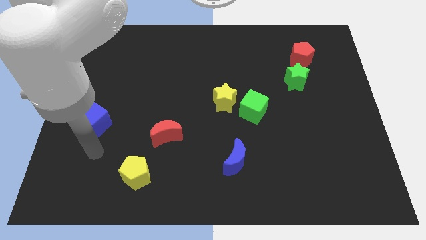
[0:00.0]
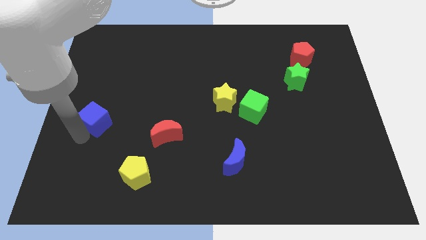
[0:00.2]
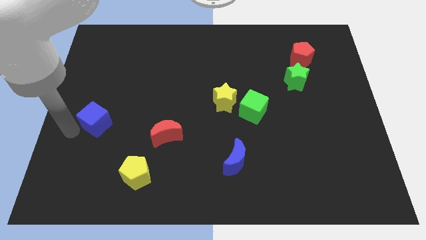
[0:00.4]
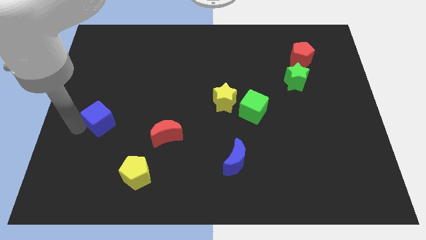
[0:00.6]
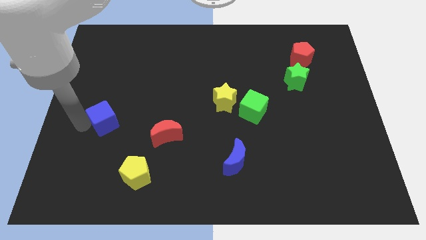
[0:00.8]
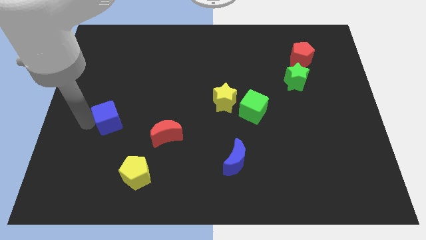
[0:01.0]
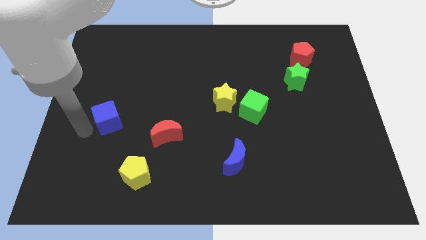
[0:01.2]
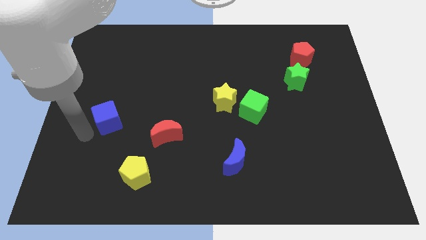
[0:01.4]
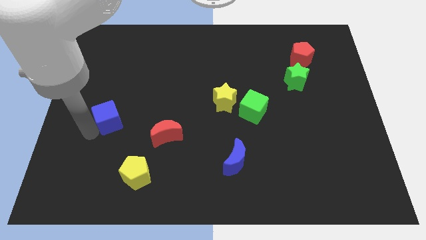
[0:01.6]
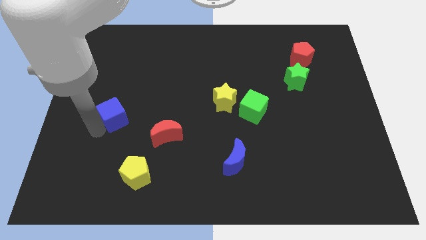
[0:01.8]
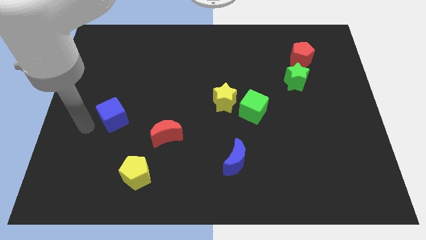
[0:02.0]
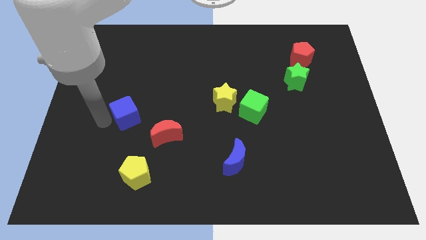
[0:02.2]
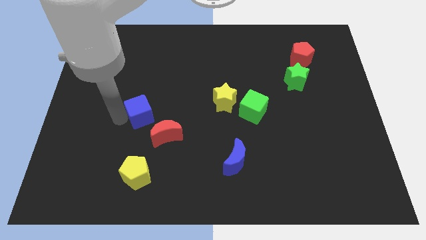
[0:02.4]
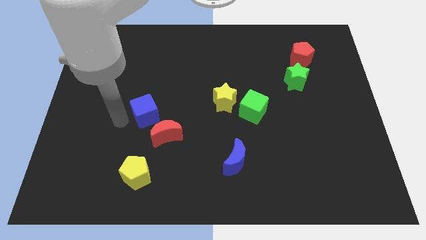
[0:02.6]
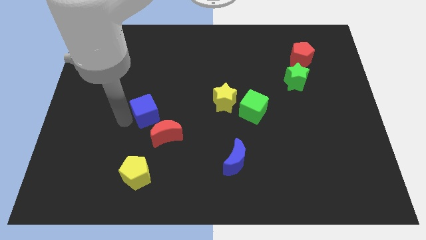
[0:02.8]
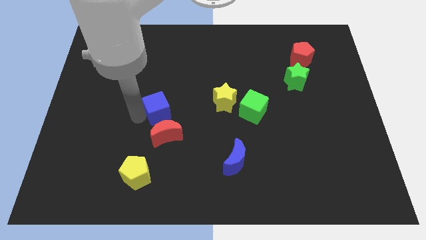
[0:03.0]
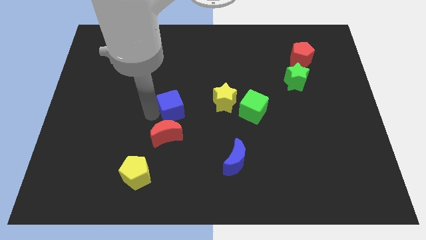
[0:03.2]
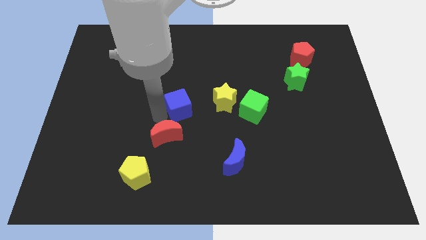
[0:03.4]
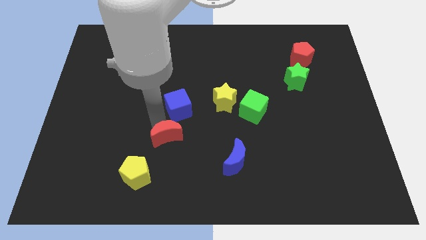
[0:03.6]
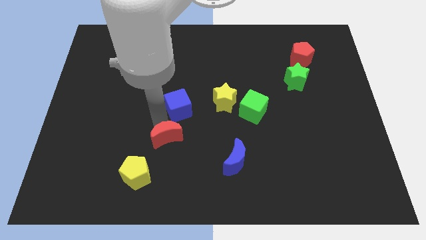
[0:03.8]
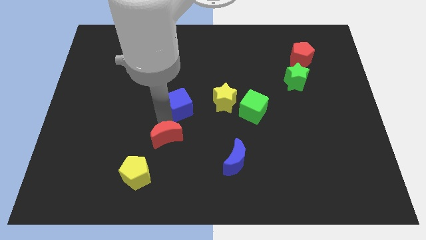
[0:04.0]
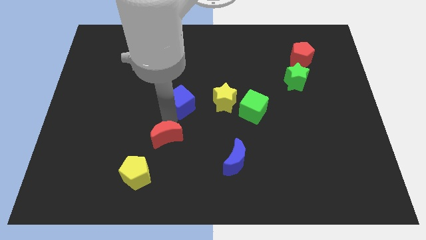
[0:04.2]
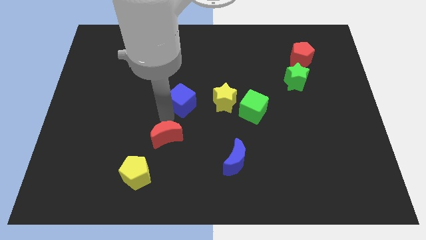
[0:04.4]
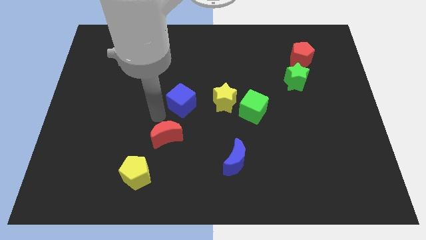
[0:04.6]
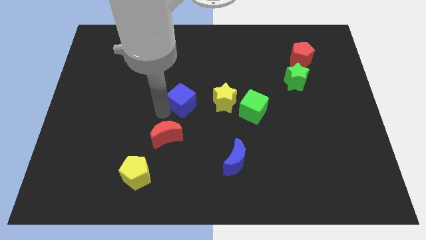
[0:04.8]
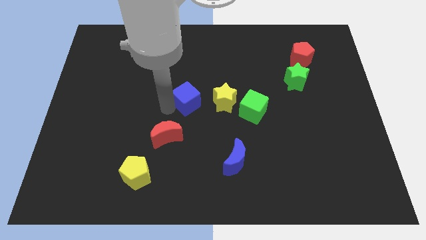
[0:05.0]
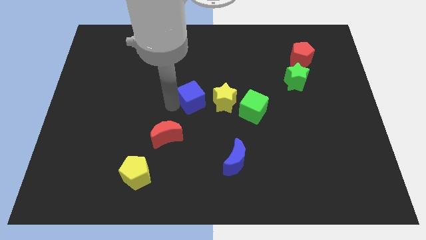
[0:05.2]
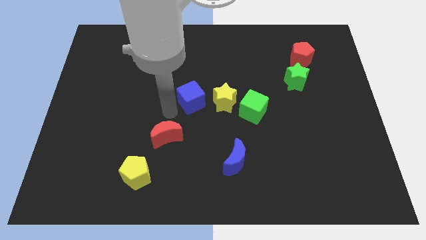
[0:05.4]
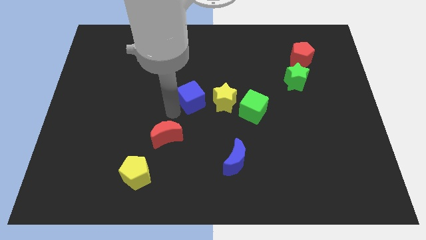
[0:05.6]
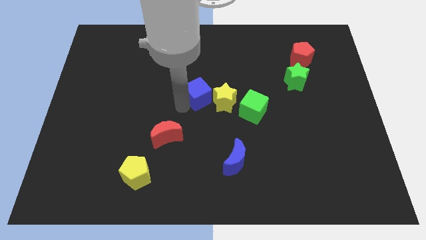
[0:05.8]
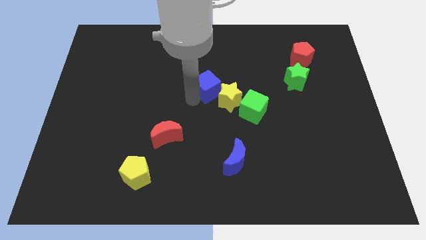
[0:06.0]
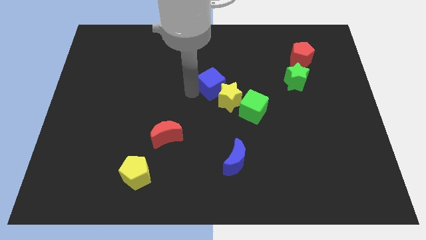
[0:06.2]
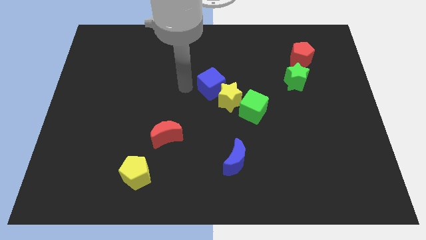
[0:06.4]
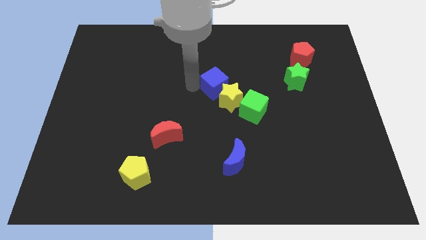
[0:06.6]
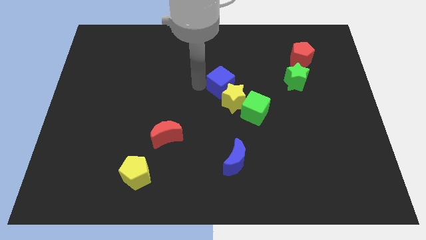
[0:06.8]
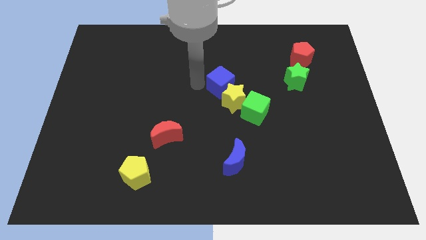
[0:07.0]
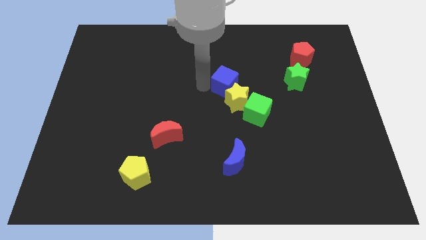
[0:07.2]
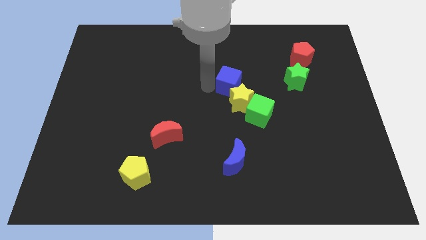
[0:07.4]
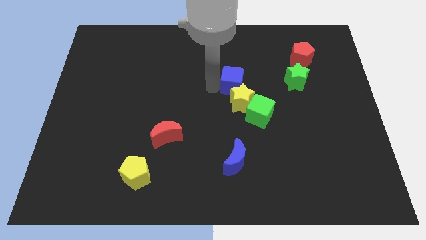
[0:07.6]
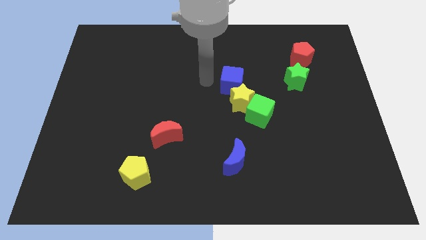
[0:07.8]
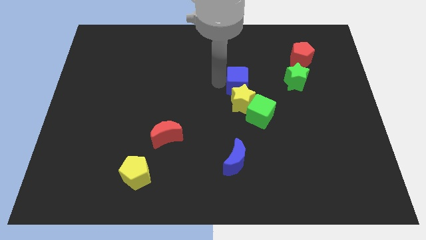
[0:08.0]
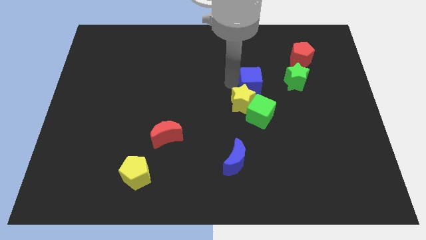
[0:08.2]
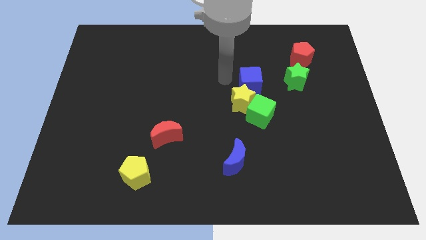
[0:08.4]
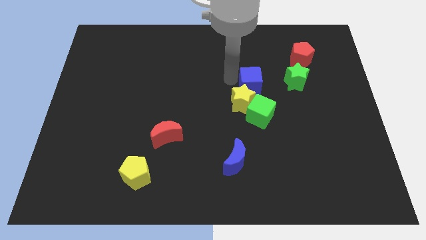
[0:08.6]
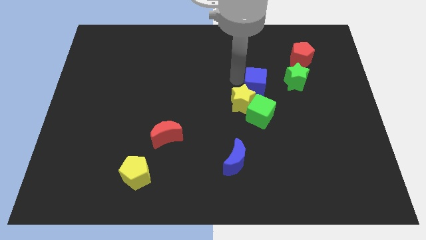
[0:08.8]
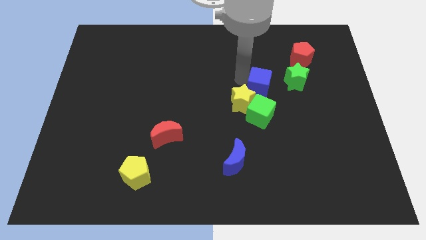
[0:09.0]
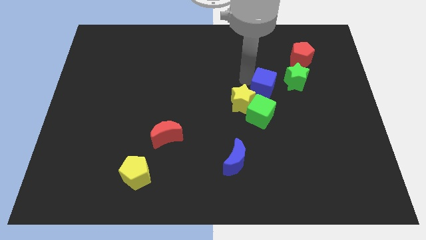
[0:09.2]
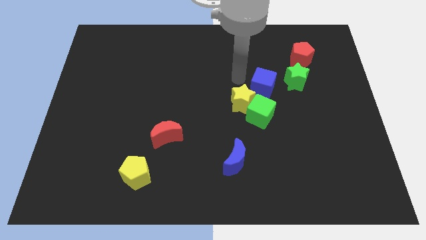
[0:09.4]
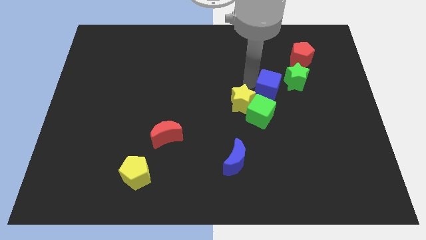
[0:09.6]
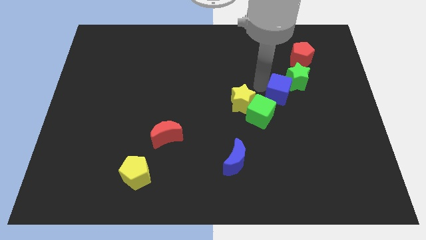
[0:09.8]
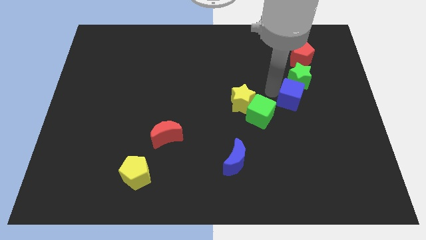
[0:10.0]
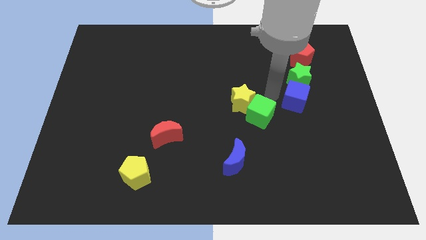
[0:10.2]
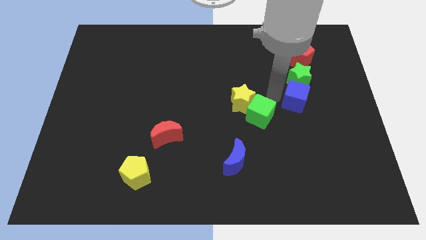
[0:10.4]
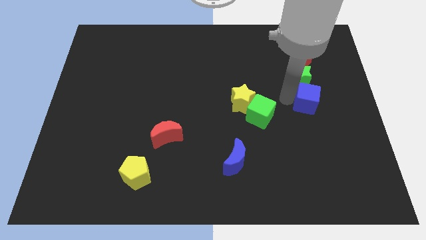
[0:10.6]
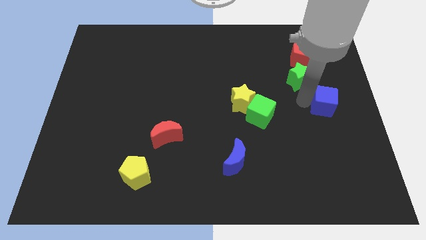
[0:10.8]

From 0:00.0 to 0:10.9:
slide the blue cube to the center right

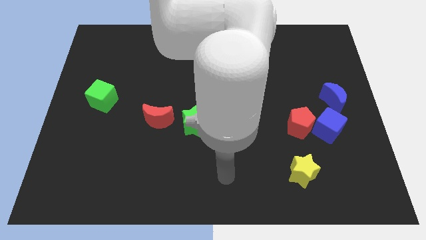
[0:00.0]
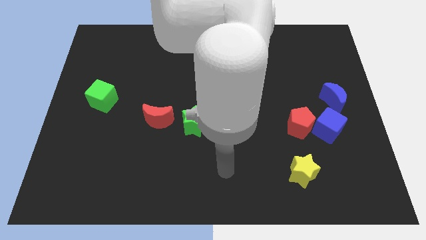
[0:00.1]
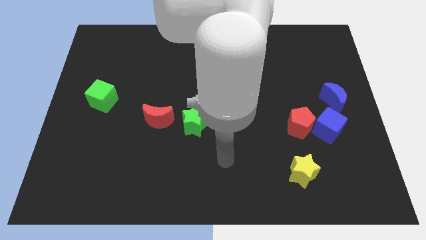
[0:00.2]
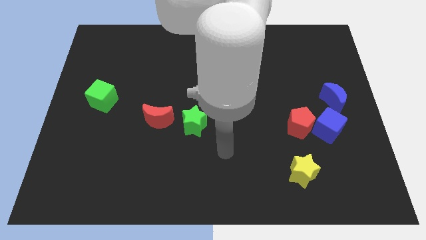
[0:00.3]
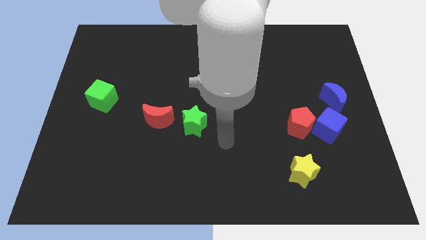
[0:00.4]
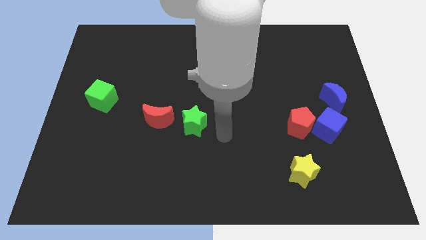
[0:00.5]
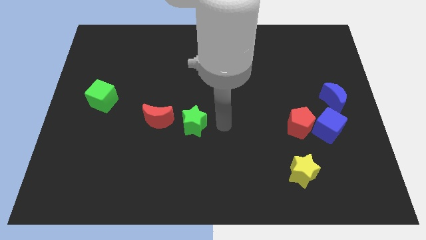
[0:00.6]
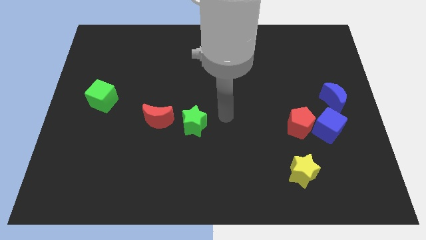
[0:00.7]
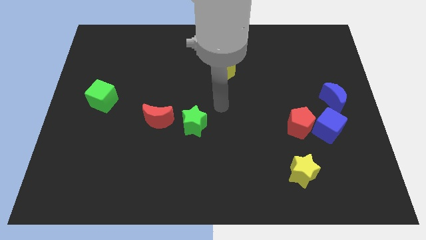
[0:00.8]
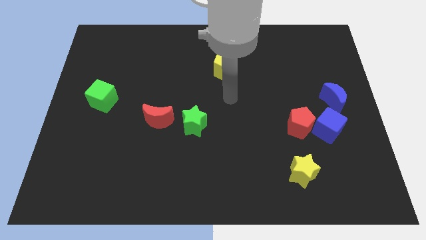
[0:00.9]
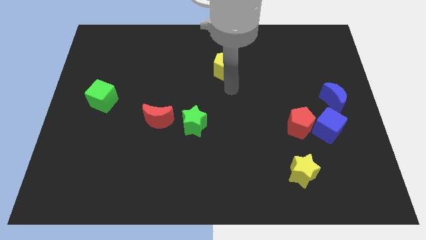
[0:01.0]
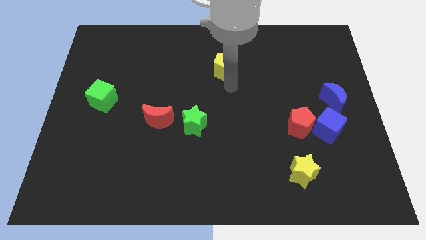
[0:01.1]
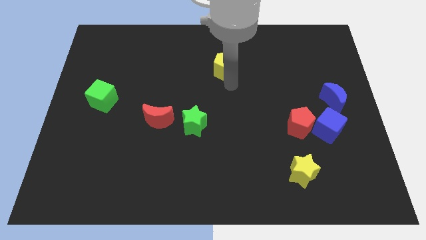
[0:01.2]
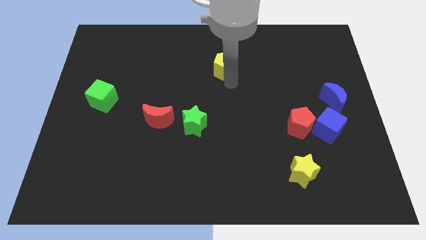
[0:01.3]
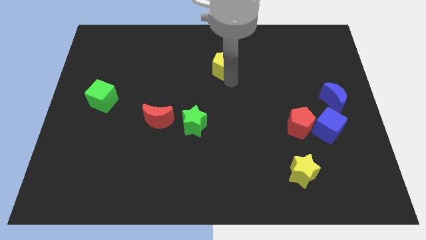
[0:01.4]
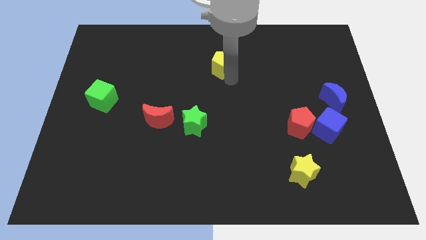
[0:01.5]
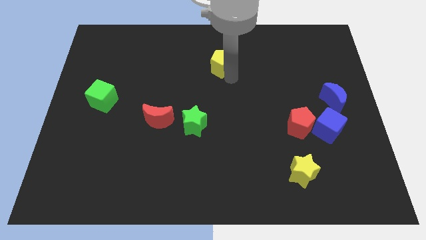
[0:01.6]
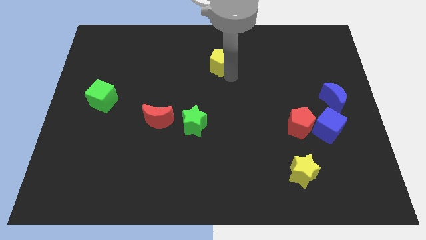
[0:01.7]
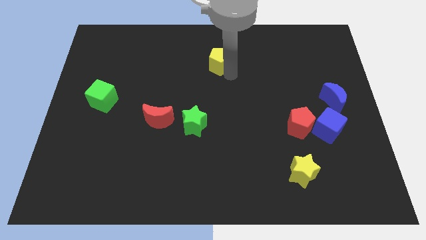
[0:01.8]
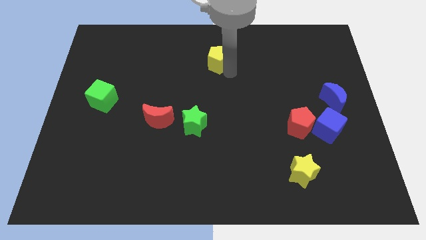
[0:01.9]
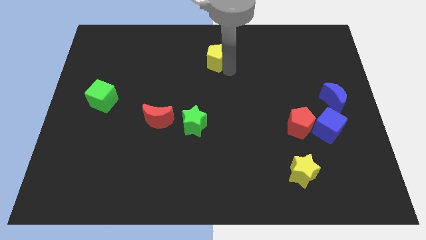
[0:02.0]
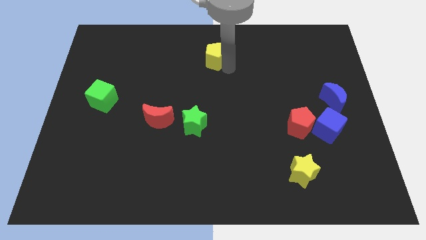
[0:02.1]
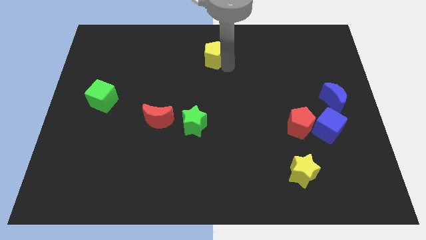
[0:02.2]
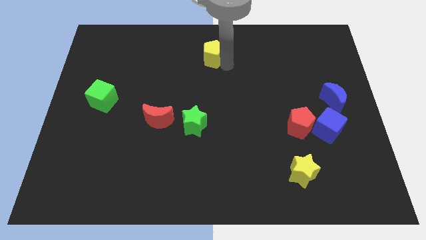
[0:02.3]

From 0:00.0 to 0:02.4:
slide the yellow pentagon to the top
